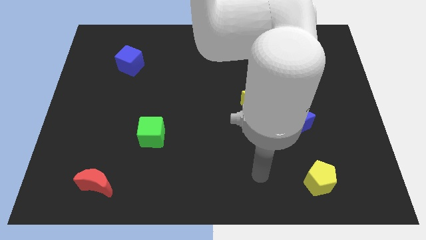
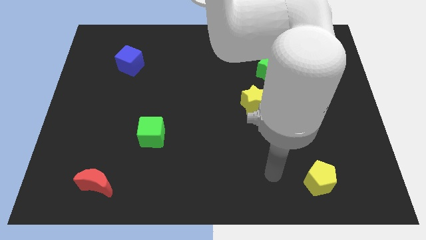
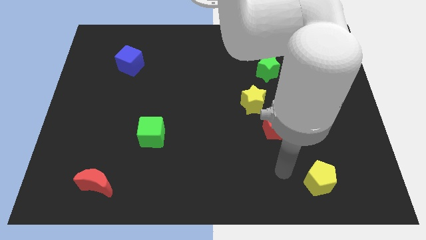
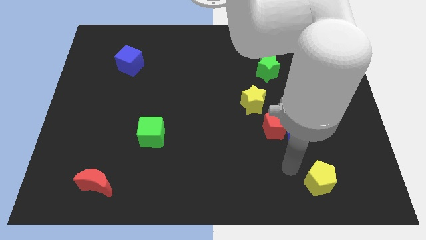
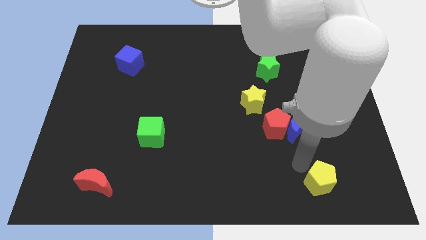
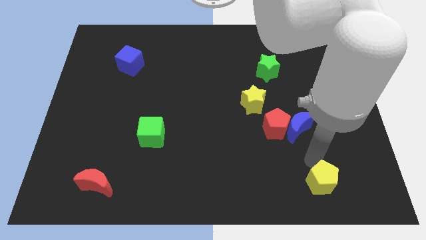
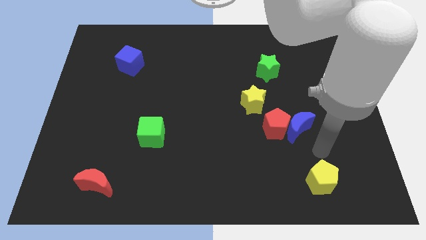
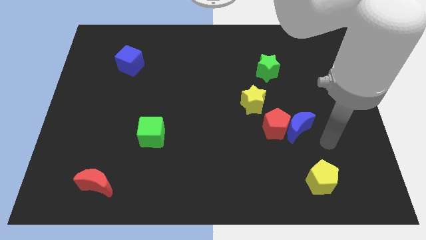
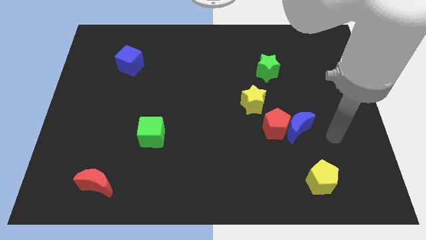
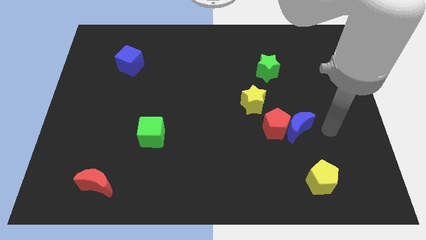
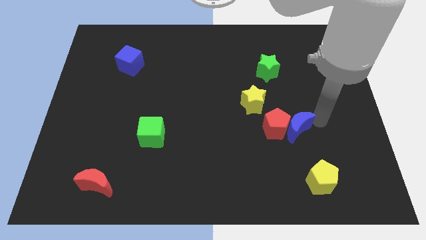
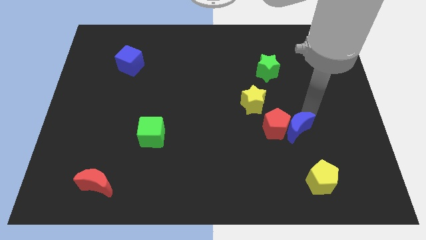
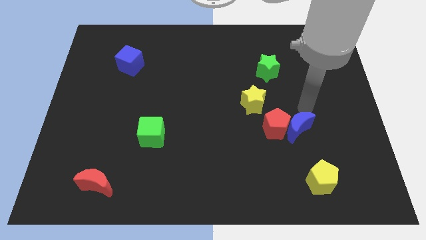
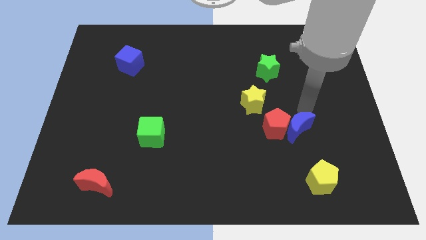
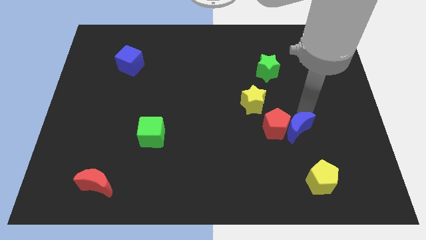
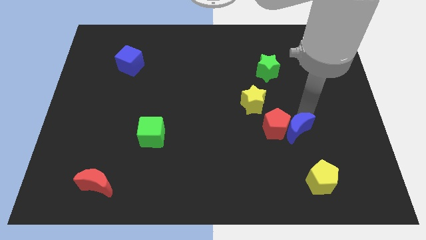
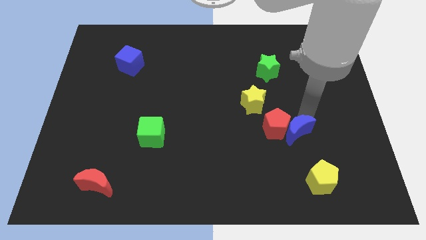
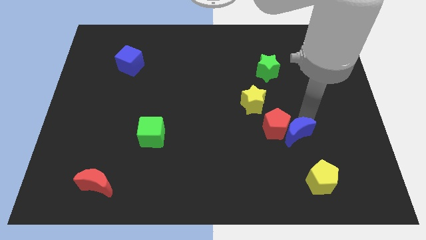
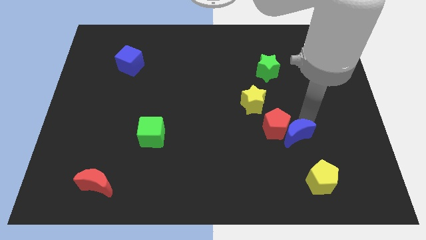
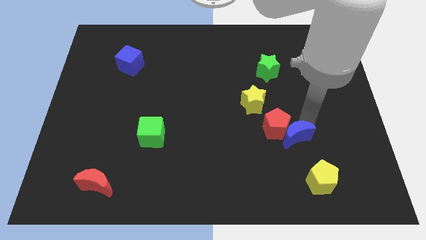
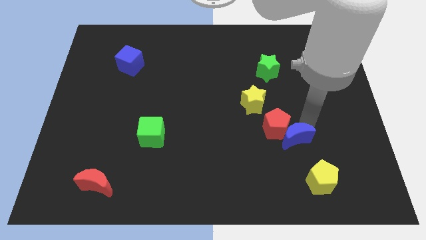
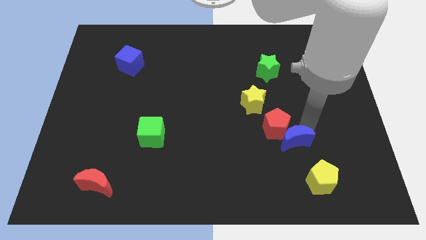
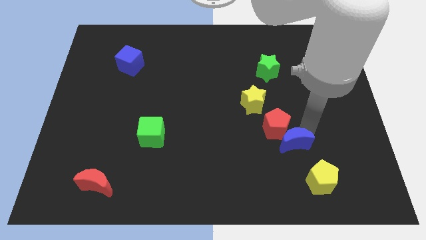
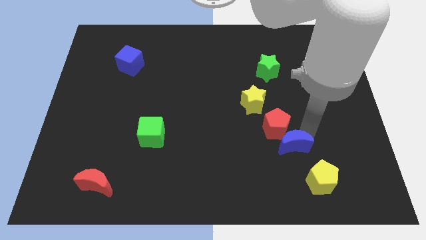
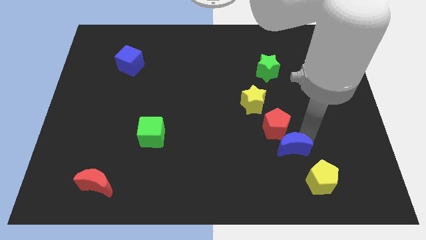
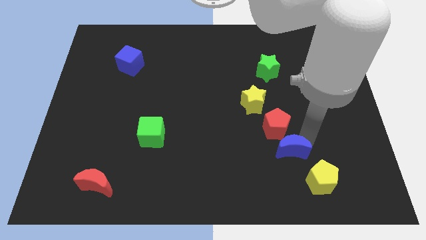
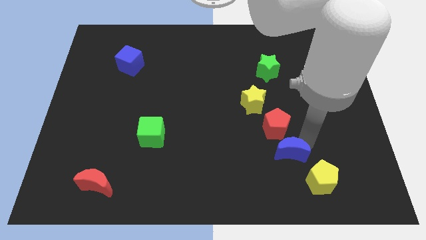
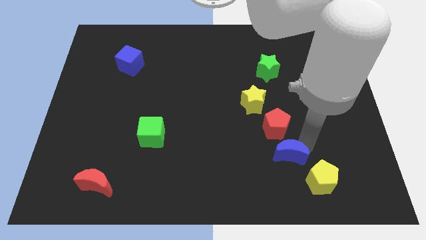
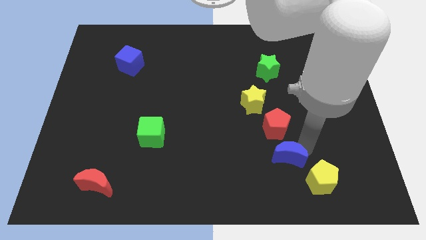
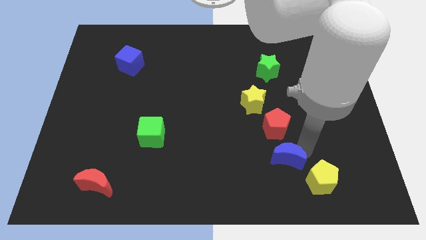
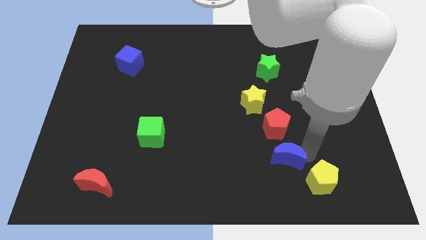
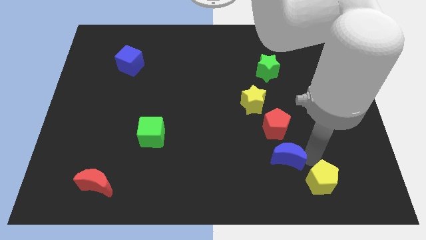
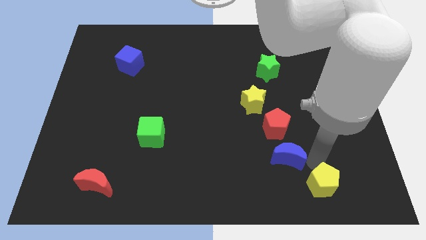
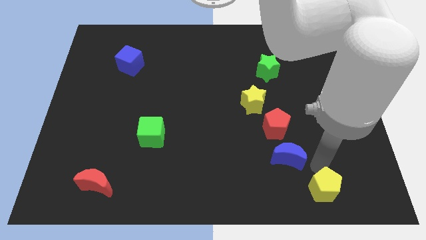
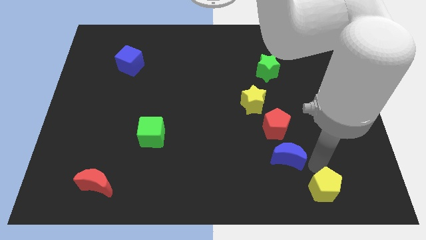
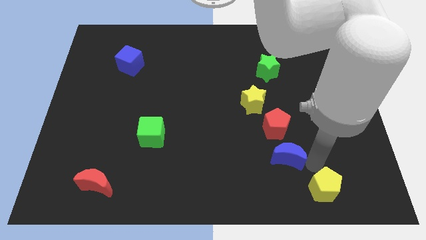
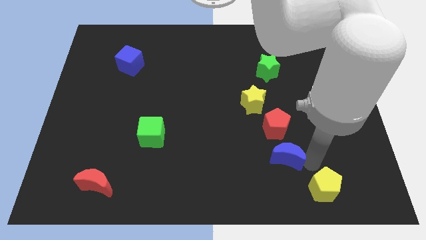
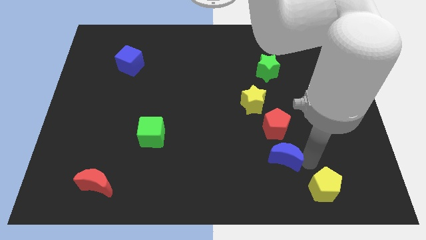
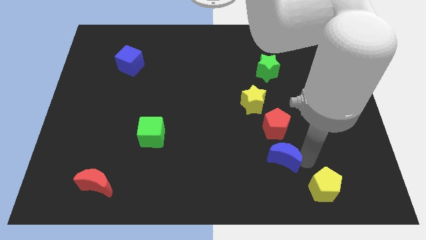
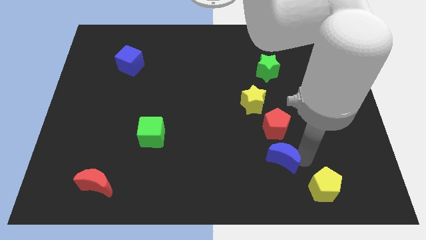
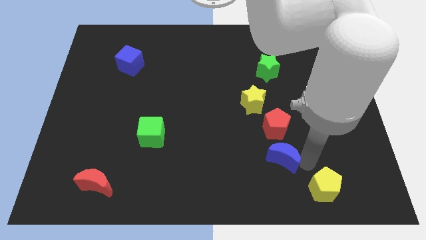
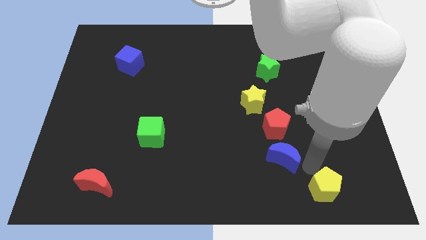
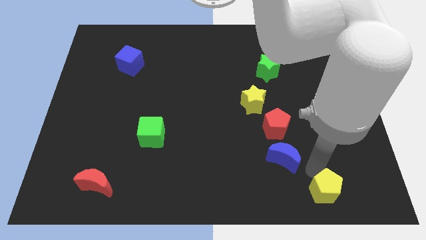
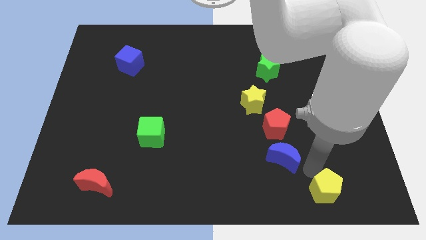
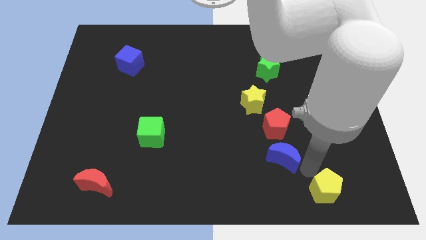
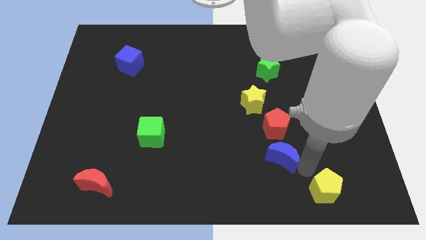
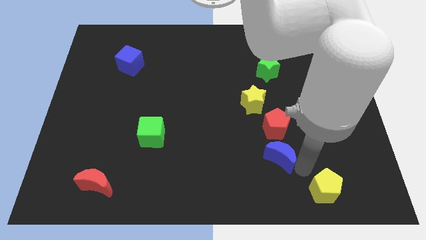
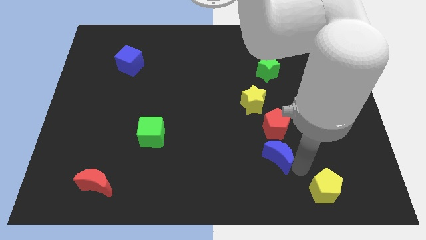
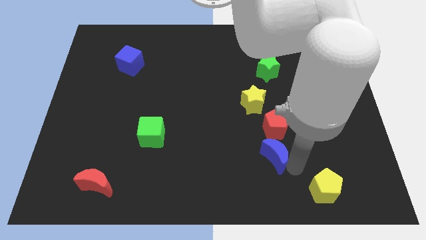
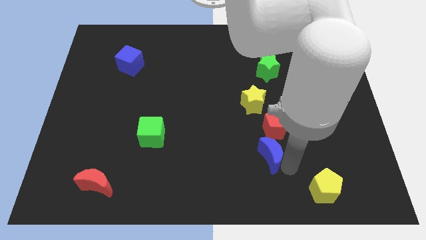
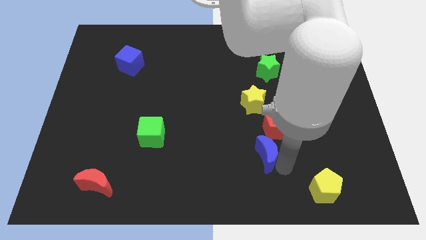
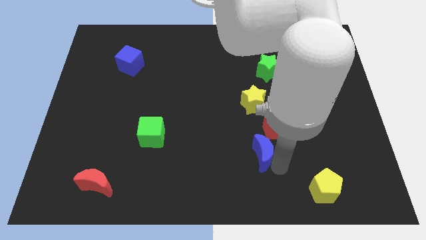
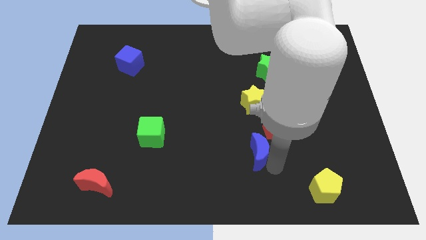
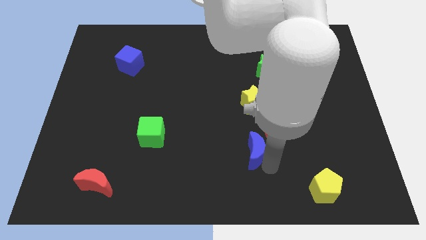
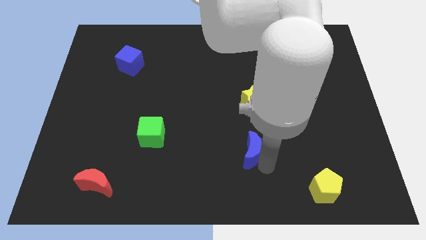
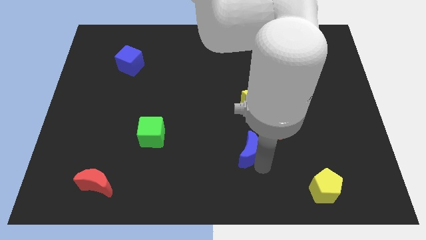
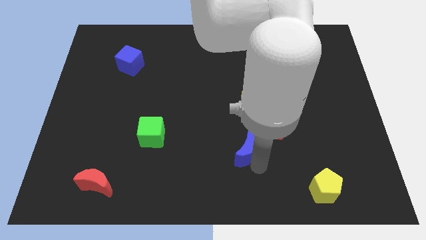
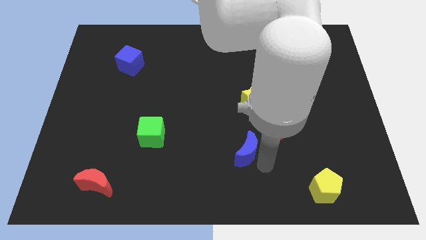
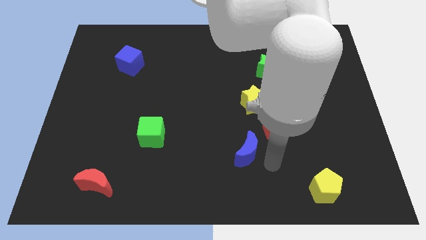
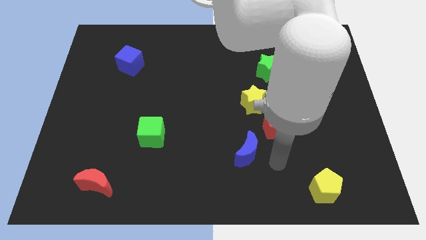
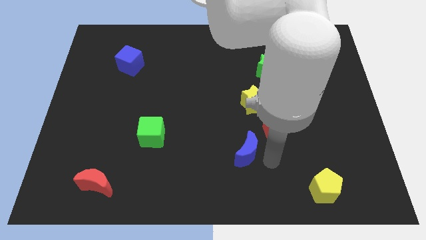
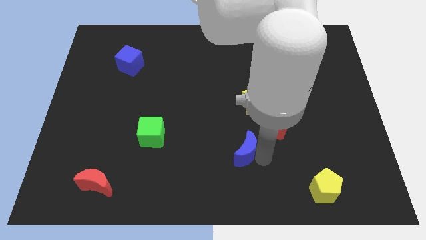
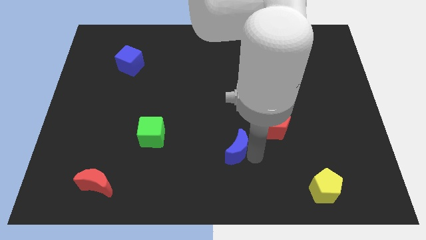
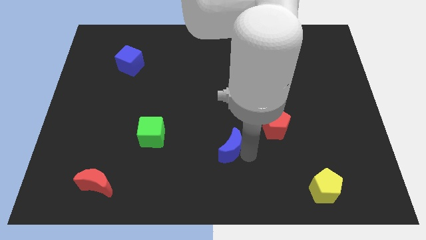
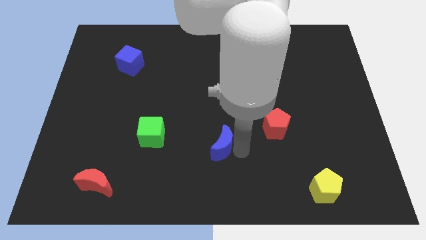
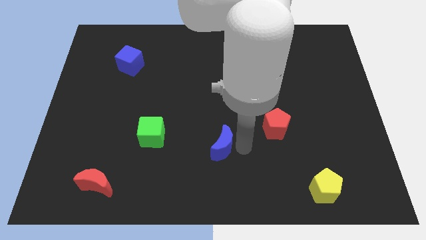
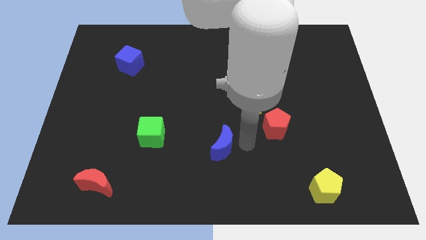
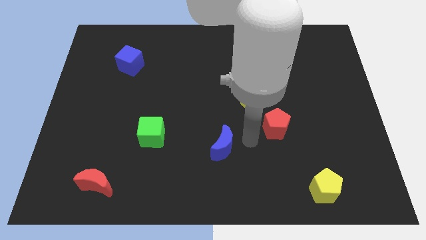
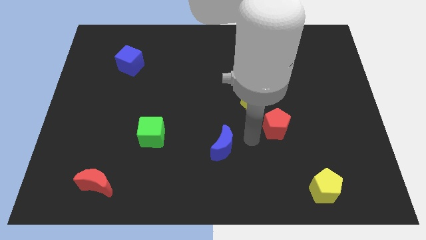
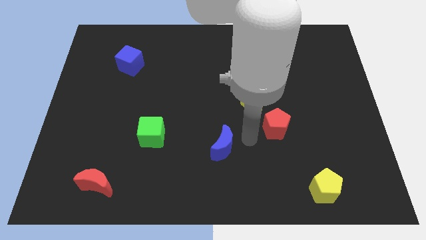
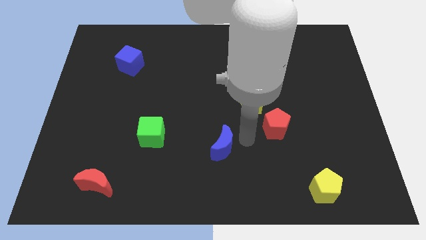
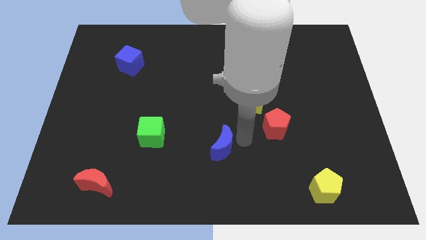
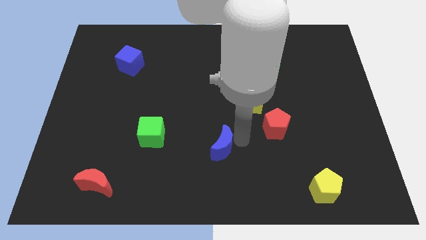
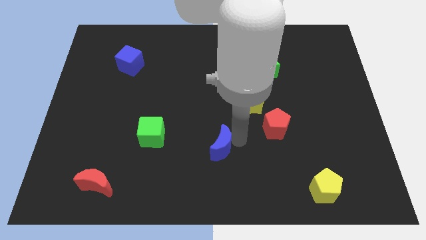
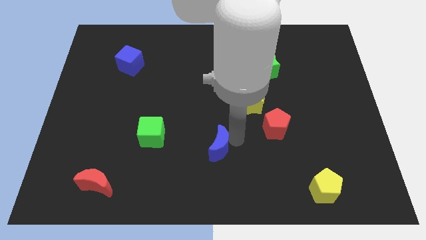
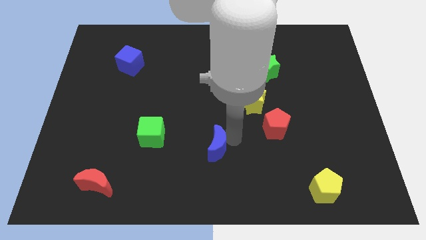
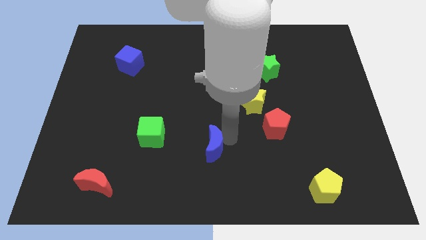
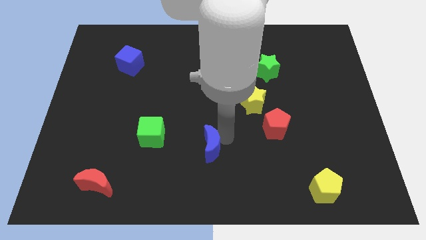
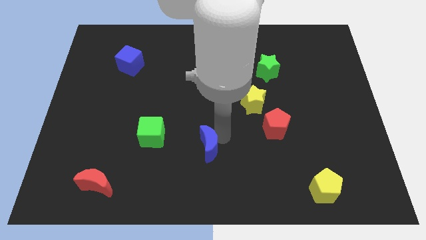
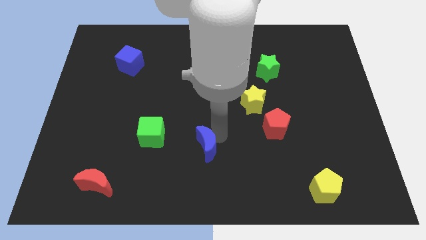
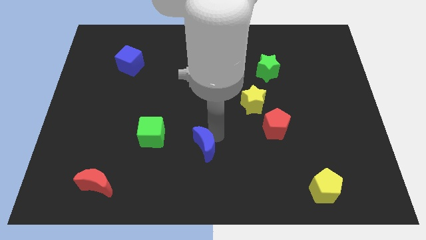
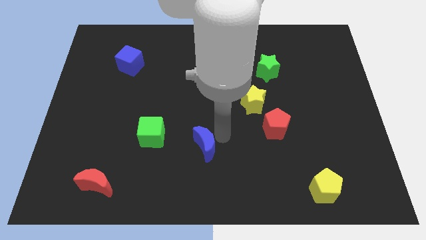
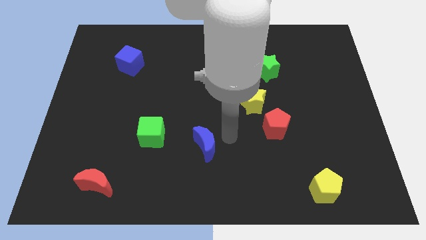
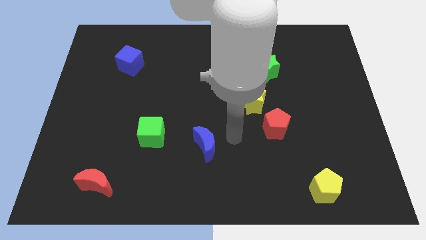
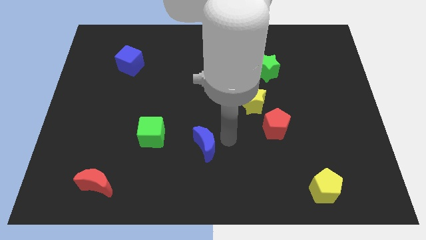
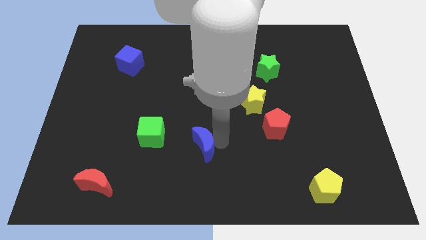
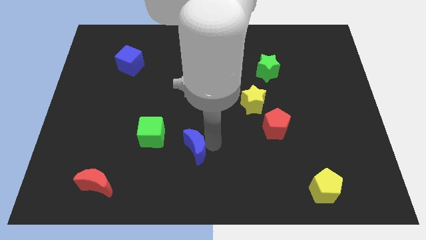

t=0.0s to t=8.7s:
put the blue moon to the bottom right side of the green cube
